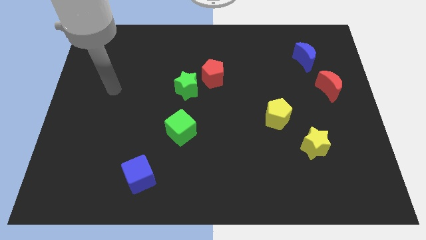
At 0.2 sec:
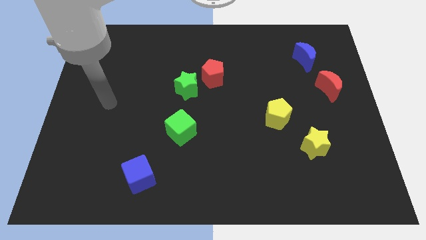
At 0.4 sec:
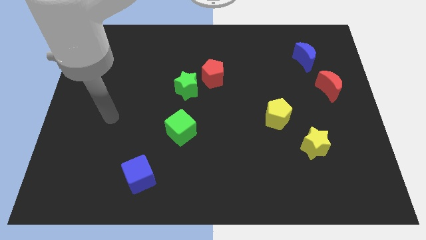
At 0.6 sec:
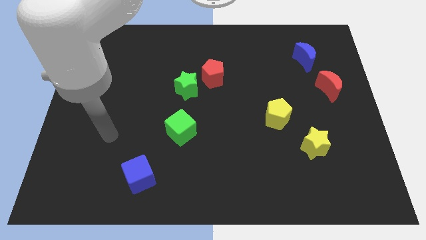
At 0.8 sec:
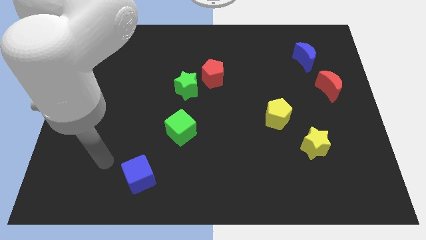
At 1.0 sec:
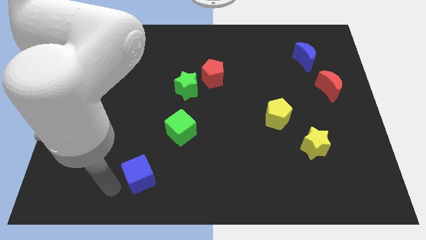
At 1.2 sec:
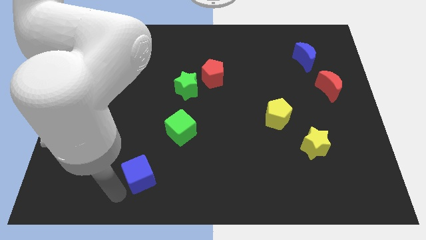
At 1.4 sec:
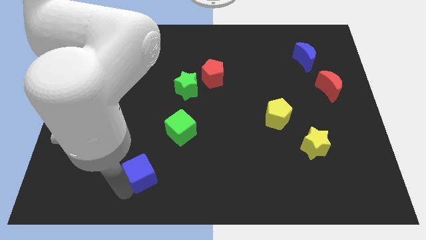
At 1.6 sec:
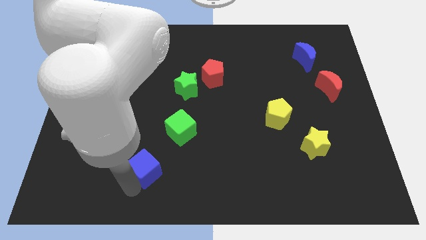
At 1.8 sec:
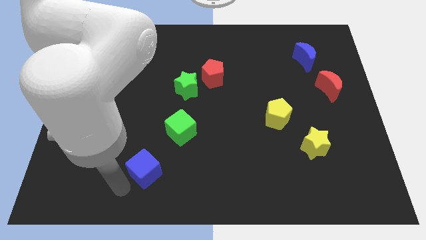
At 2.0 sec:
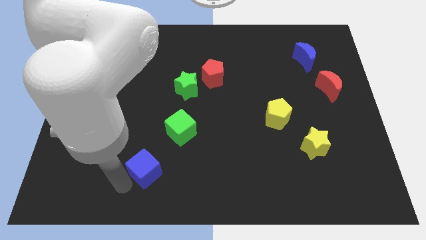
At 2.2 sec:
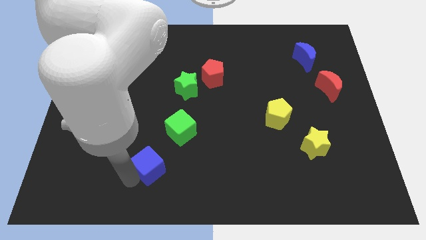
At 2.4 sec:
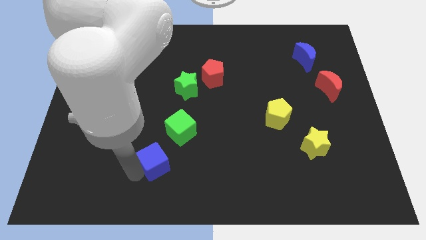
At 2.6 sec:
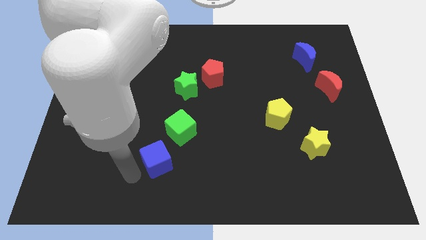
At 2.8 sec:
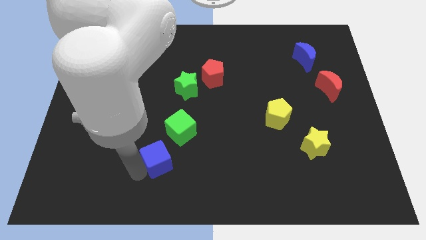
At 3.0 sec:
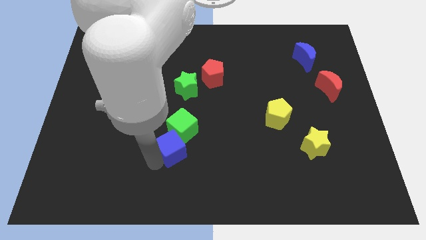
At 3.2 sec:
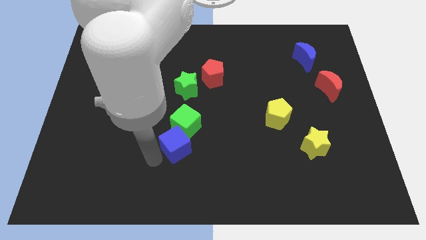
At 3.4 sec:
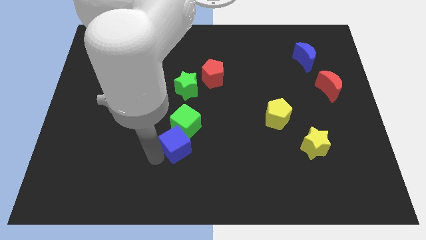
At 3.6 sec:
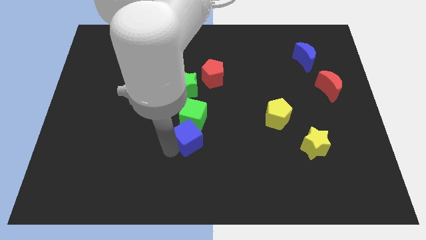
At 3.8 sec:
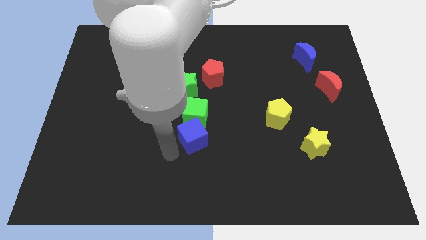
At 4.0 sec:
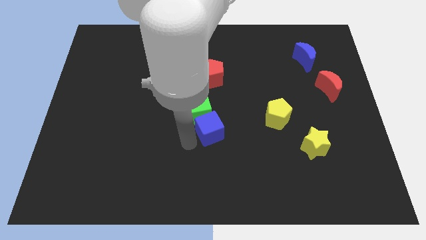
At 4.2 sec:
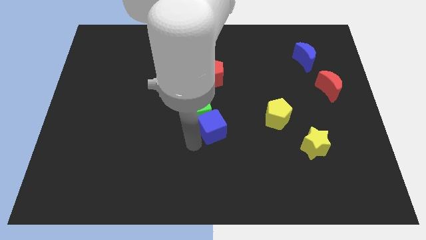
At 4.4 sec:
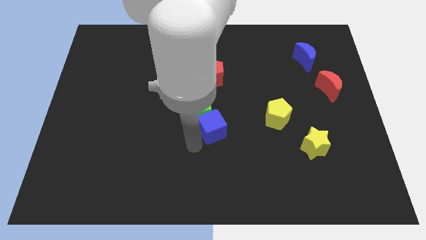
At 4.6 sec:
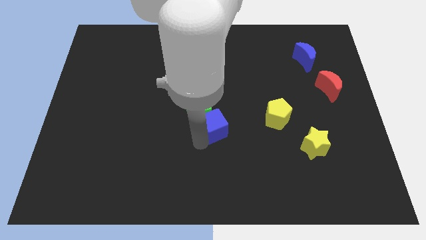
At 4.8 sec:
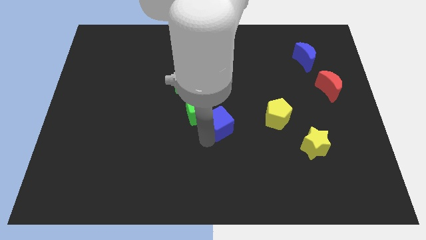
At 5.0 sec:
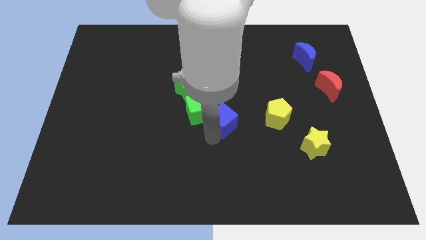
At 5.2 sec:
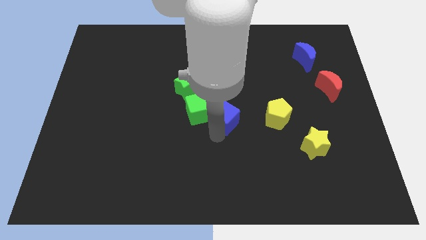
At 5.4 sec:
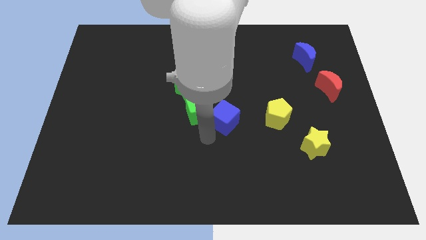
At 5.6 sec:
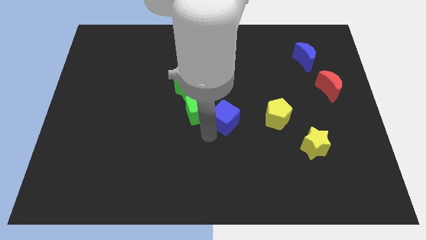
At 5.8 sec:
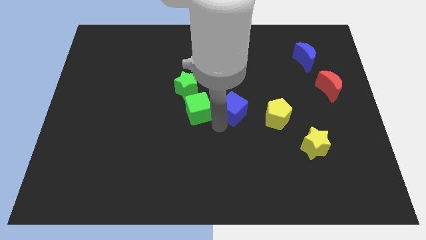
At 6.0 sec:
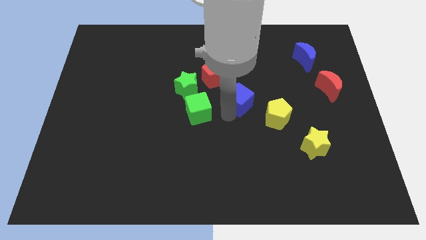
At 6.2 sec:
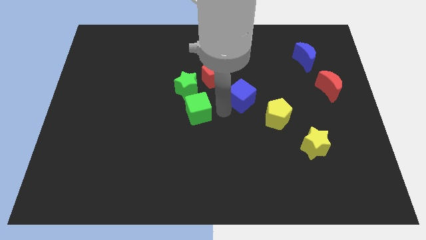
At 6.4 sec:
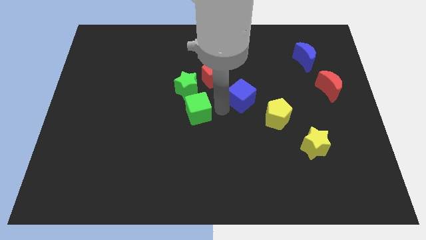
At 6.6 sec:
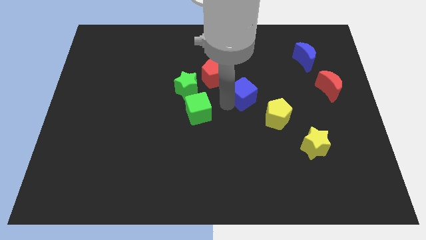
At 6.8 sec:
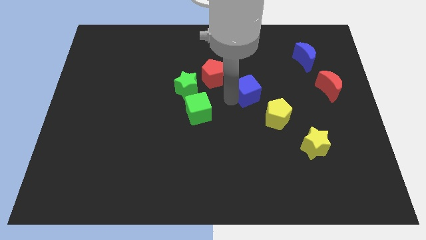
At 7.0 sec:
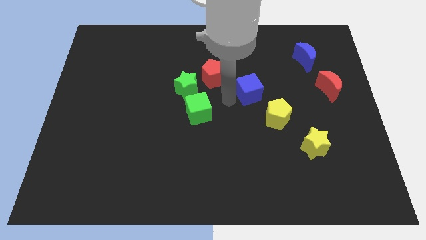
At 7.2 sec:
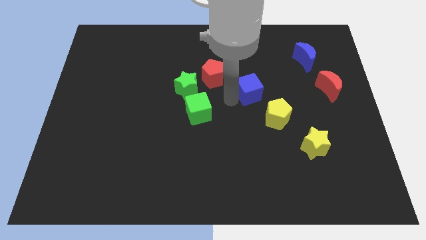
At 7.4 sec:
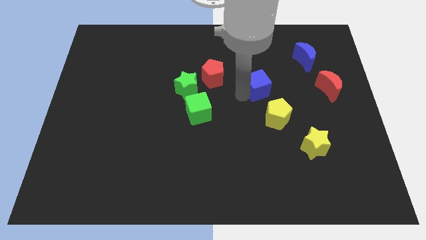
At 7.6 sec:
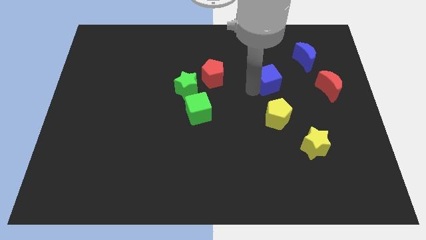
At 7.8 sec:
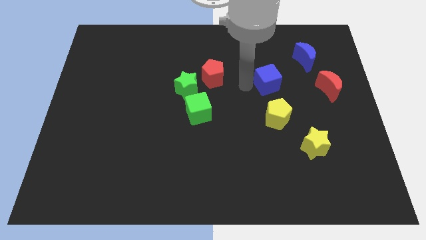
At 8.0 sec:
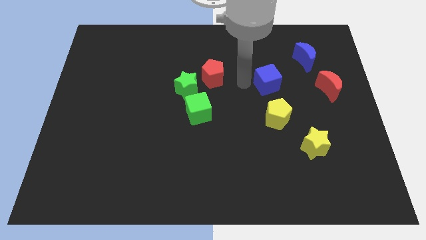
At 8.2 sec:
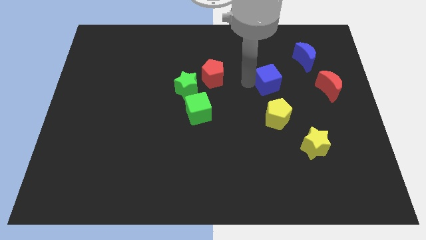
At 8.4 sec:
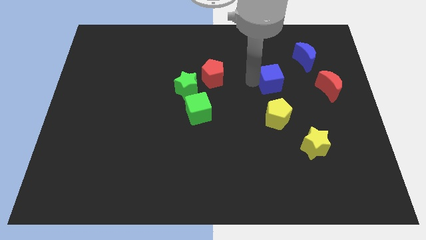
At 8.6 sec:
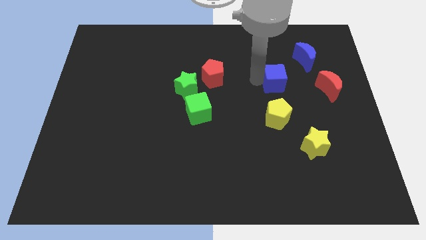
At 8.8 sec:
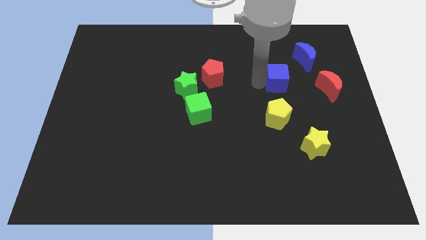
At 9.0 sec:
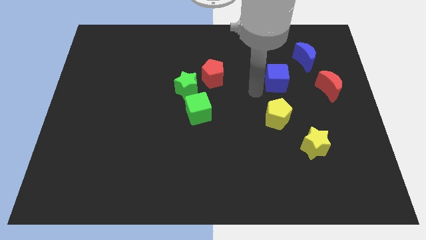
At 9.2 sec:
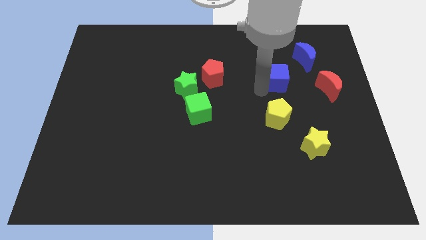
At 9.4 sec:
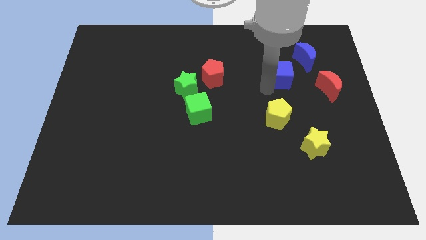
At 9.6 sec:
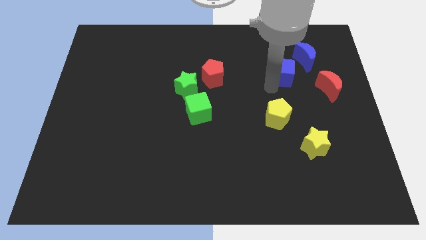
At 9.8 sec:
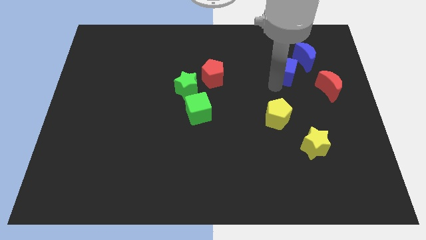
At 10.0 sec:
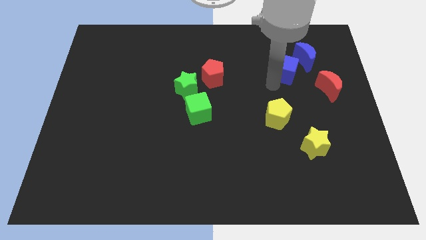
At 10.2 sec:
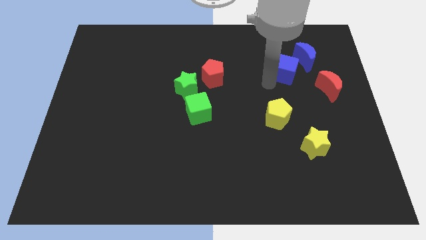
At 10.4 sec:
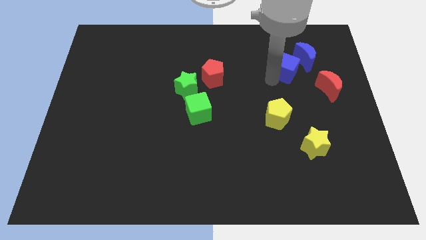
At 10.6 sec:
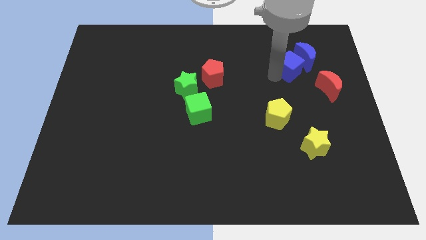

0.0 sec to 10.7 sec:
put the blue cube close to the blue moon

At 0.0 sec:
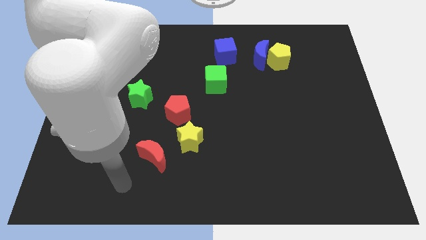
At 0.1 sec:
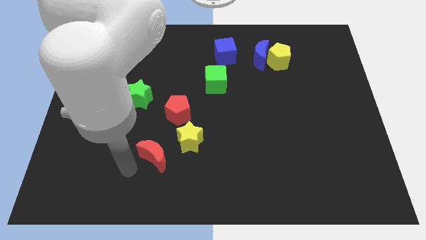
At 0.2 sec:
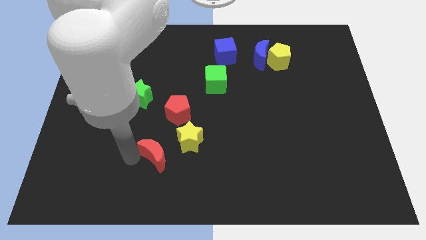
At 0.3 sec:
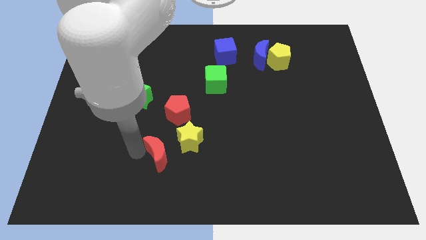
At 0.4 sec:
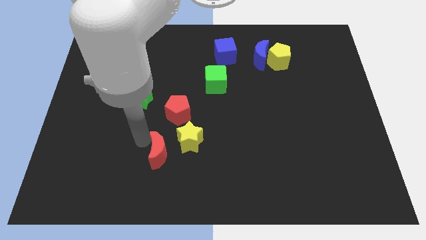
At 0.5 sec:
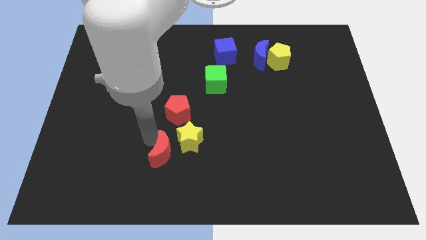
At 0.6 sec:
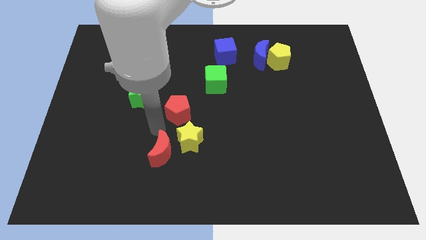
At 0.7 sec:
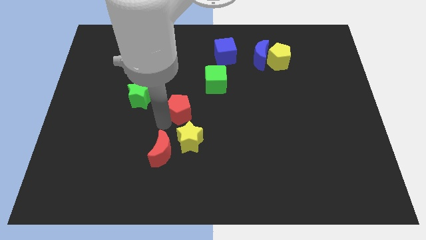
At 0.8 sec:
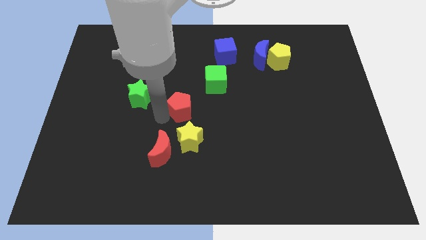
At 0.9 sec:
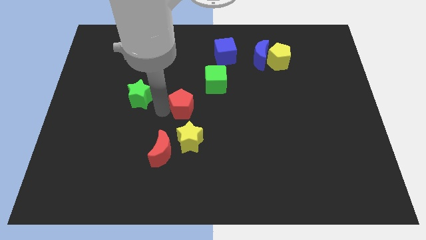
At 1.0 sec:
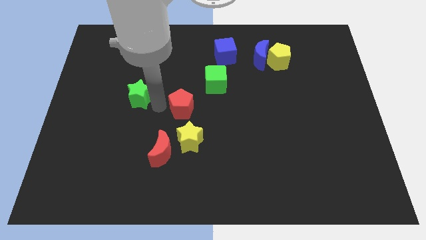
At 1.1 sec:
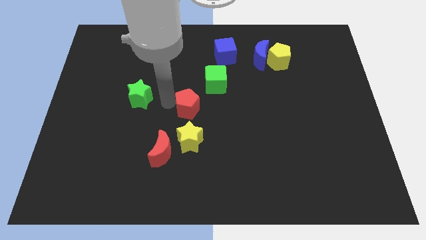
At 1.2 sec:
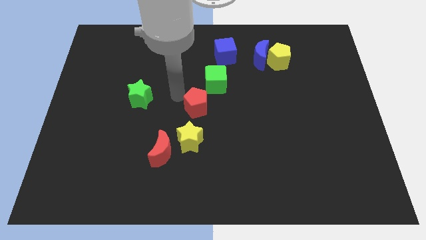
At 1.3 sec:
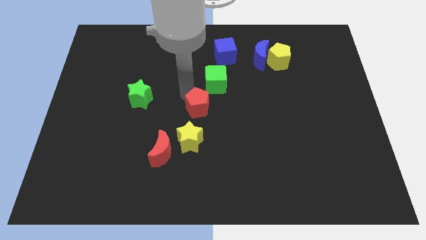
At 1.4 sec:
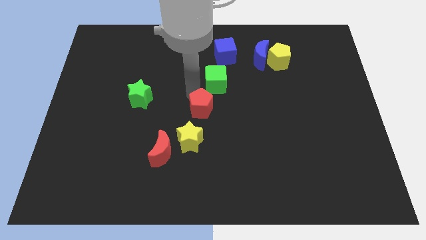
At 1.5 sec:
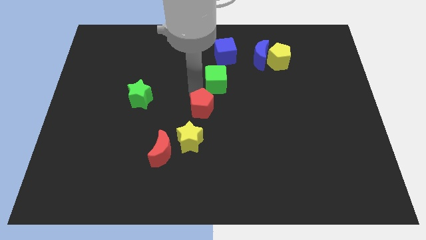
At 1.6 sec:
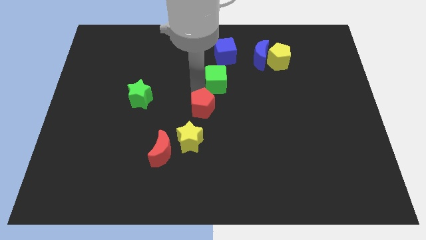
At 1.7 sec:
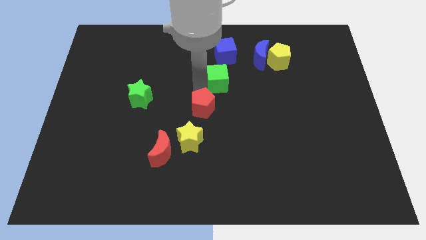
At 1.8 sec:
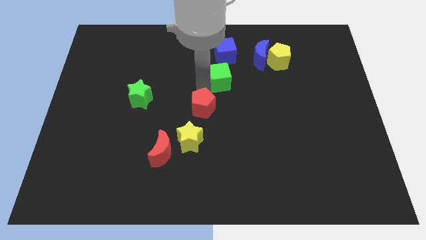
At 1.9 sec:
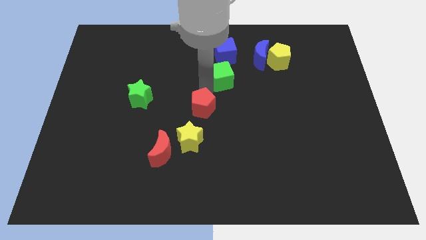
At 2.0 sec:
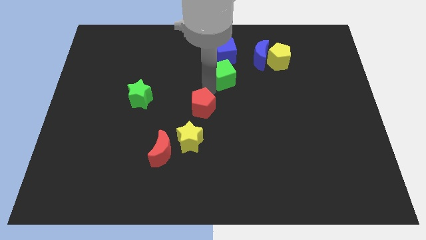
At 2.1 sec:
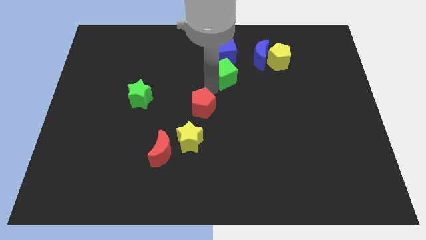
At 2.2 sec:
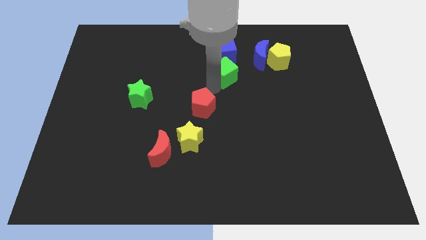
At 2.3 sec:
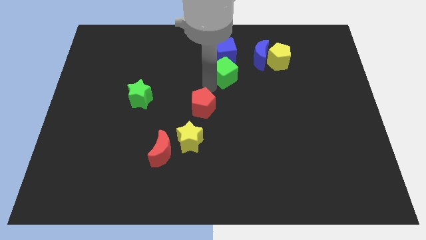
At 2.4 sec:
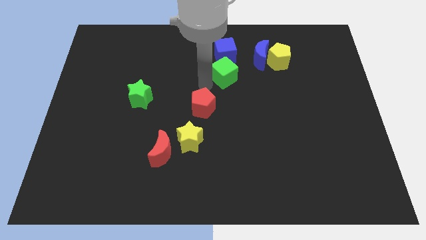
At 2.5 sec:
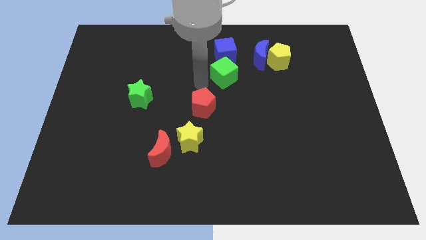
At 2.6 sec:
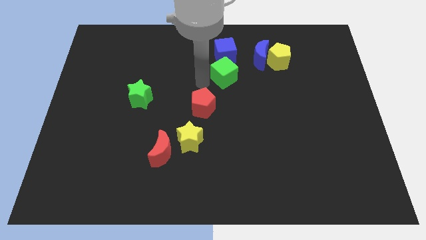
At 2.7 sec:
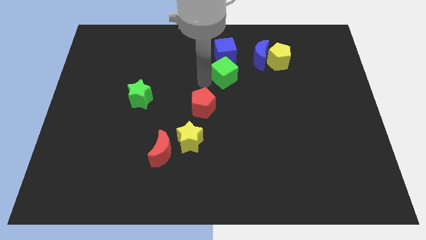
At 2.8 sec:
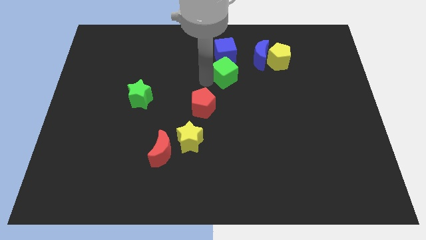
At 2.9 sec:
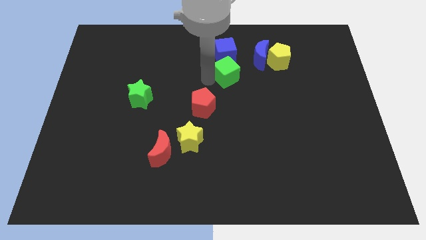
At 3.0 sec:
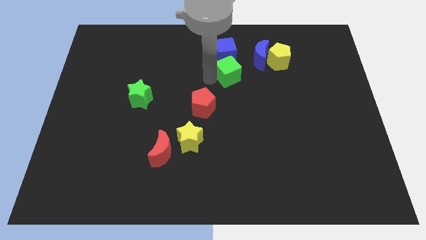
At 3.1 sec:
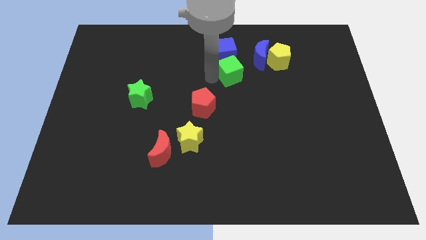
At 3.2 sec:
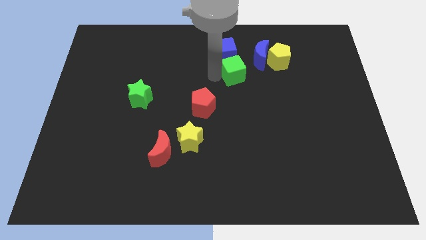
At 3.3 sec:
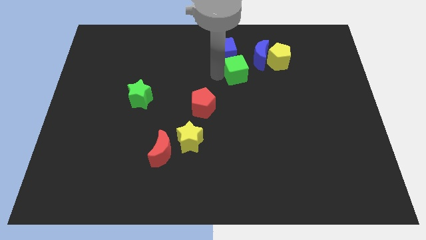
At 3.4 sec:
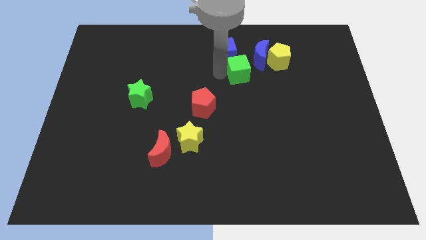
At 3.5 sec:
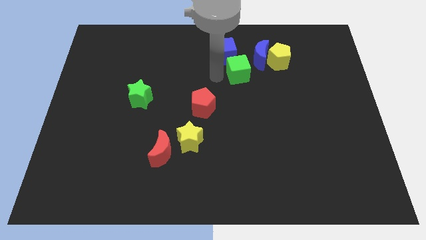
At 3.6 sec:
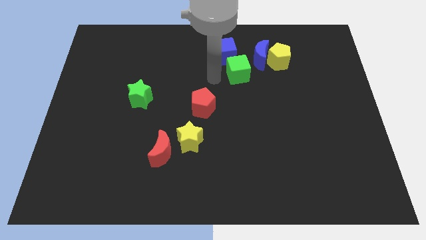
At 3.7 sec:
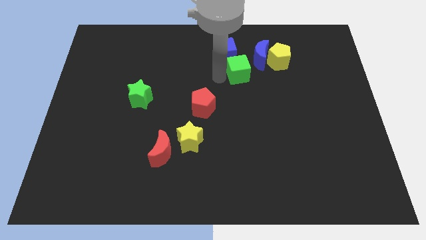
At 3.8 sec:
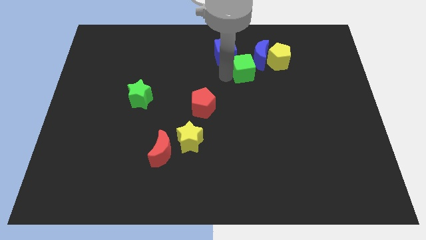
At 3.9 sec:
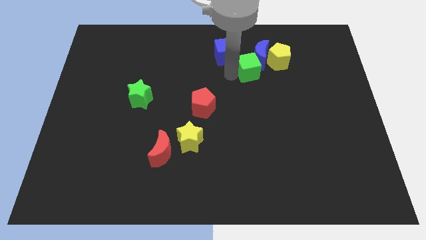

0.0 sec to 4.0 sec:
move the green cube to the blue moon
